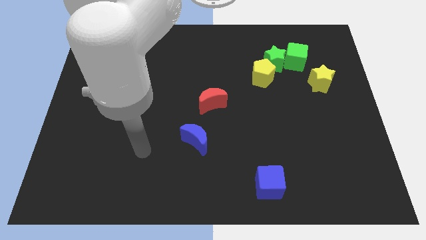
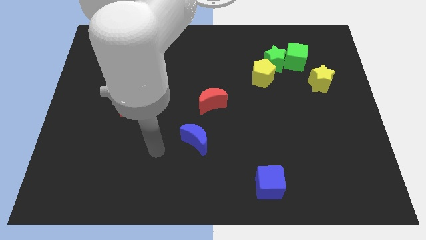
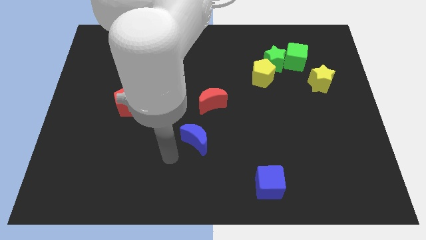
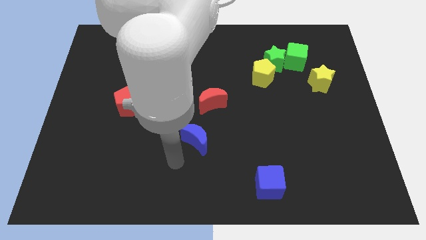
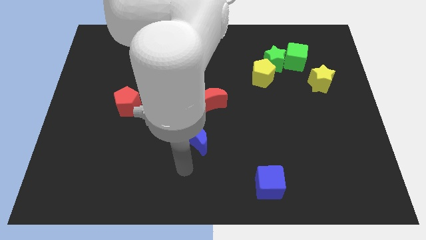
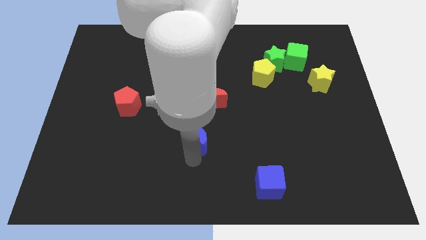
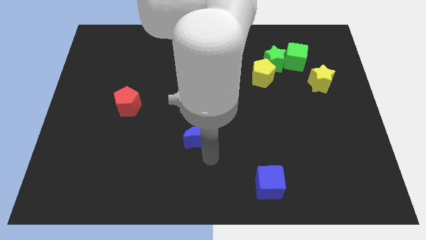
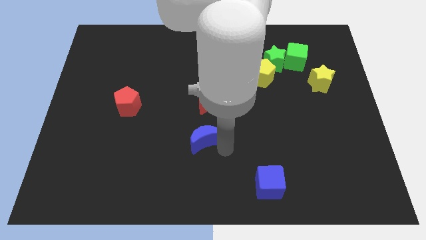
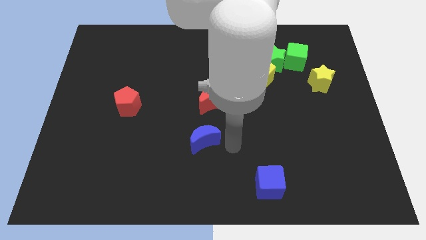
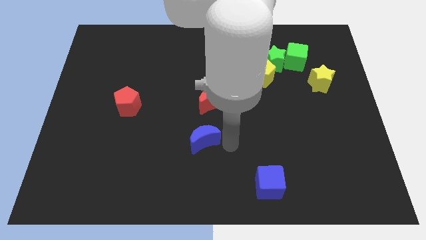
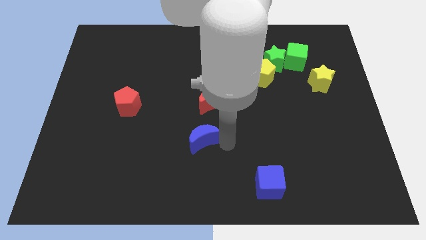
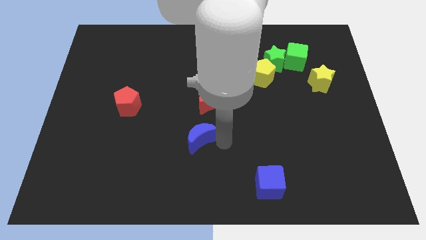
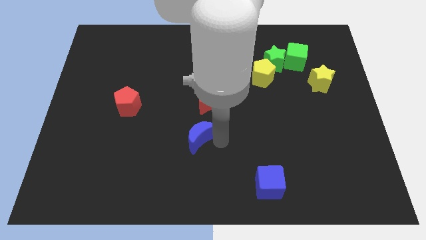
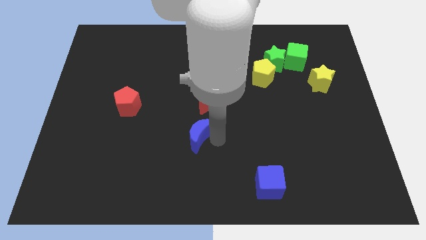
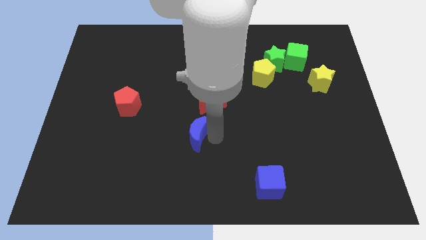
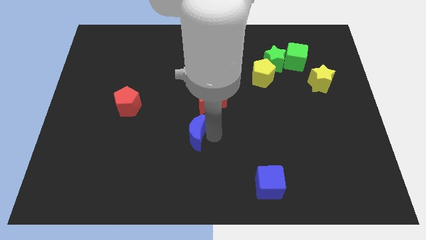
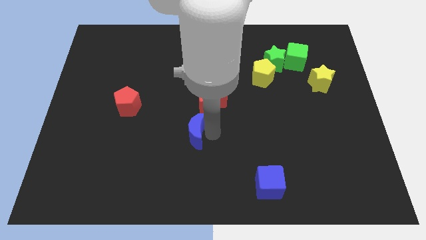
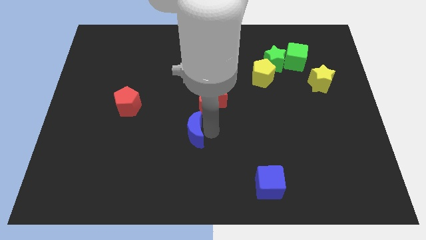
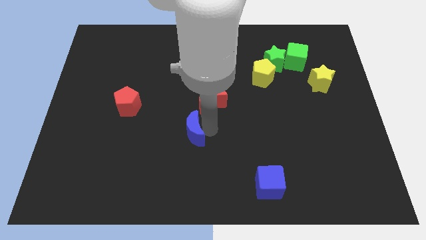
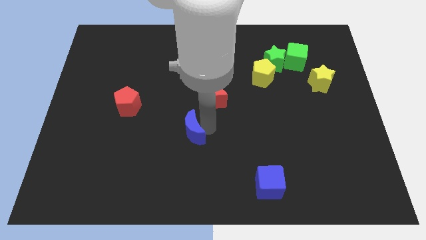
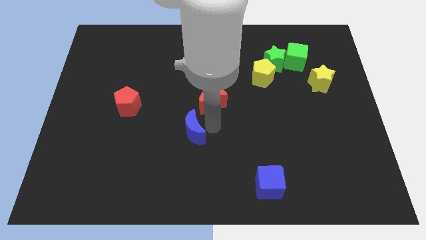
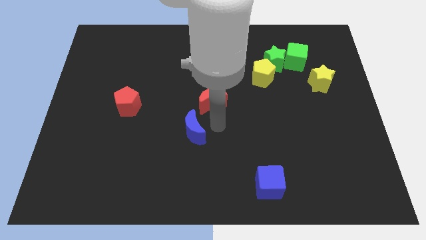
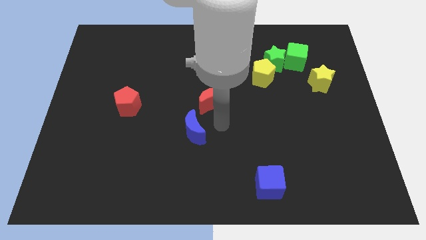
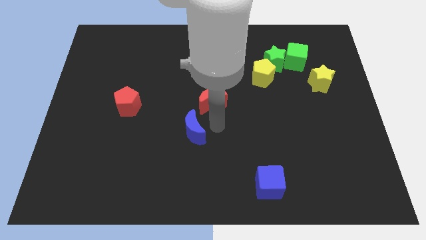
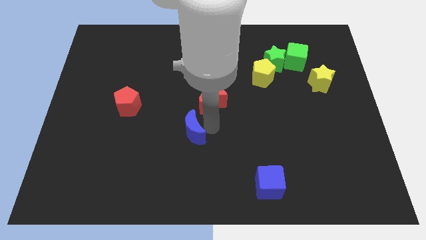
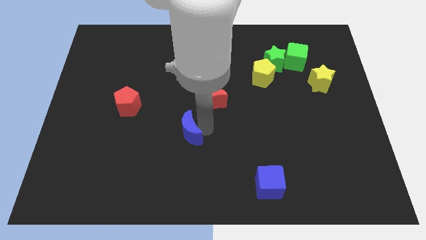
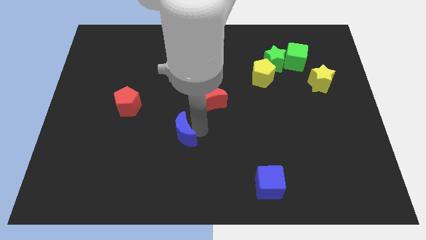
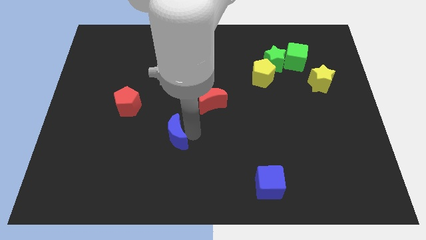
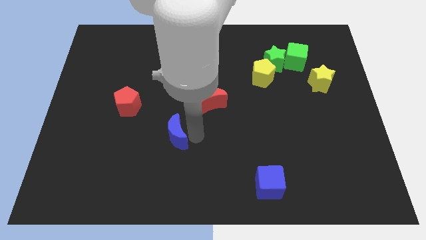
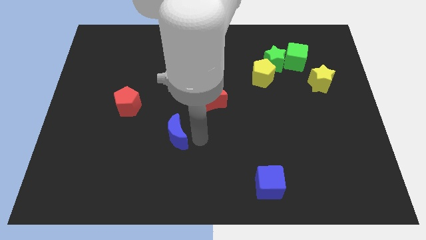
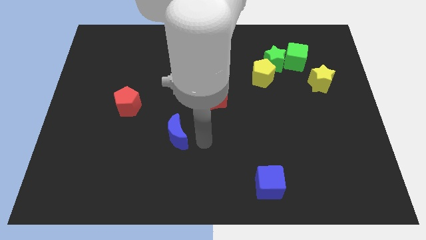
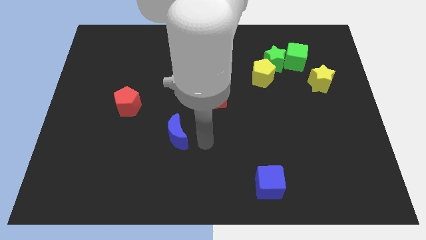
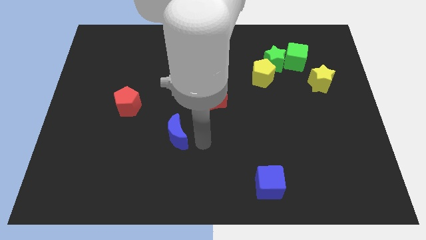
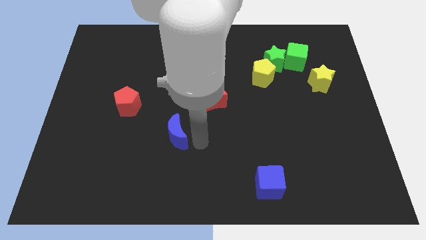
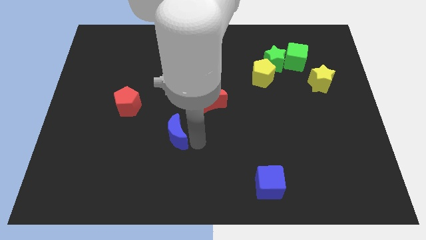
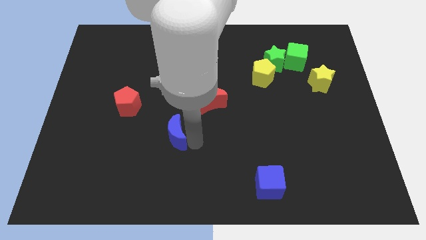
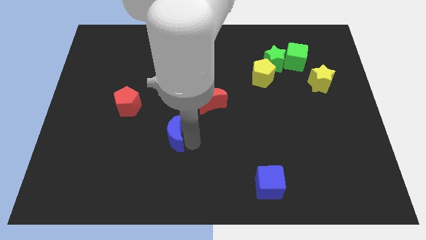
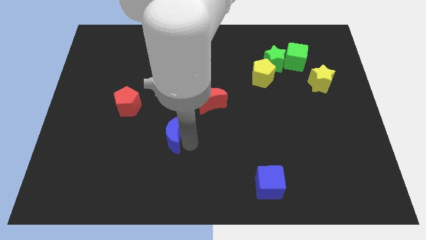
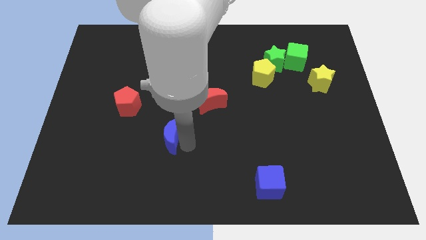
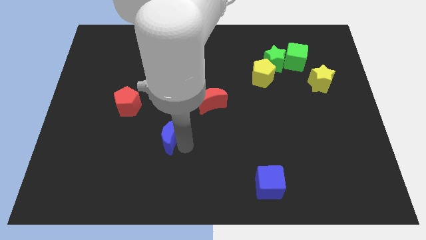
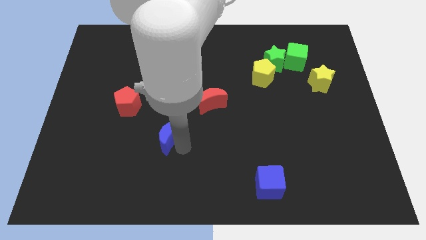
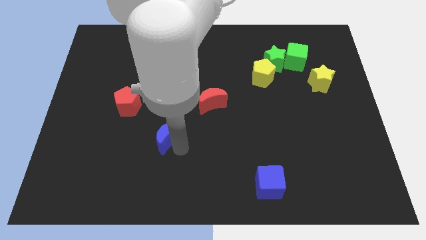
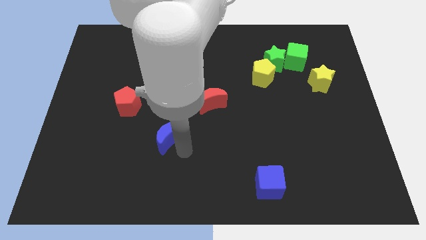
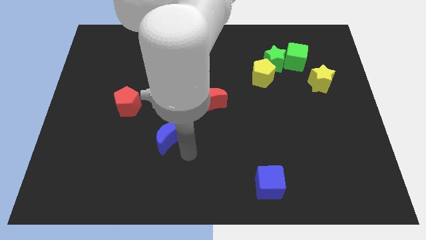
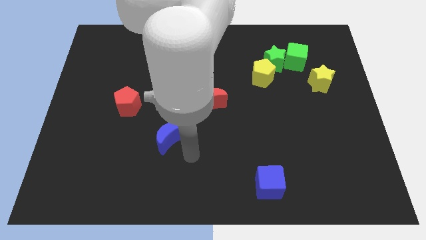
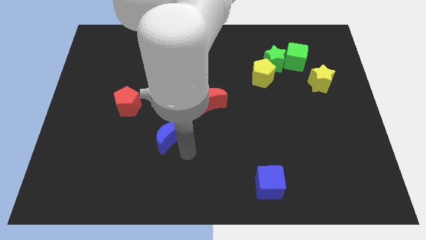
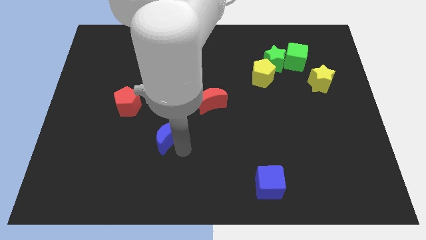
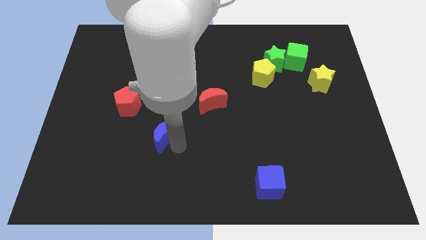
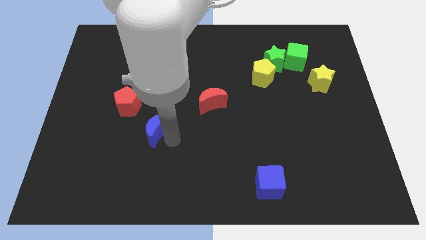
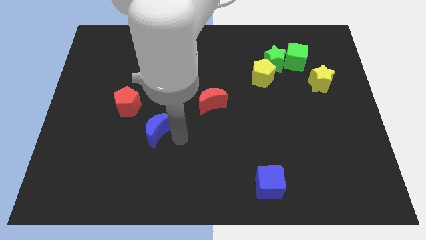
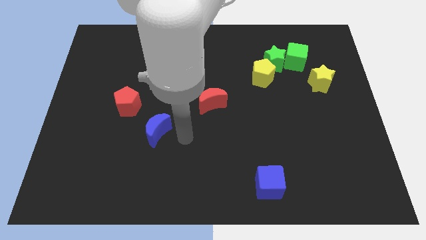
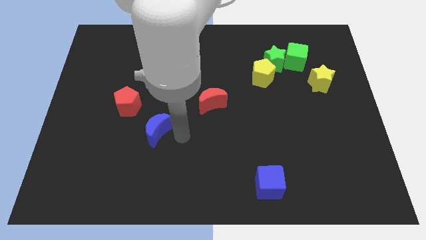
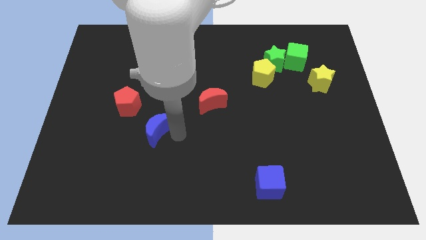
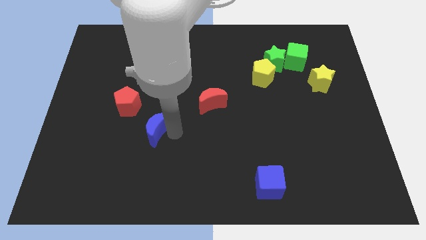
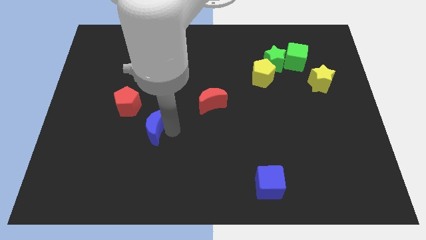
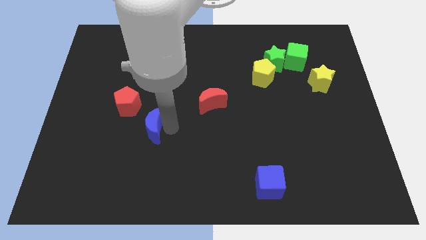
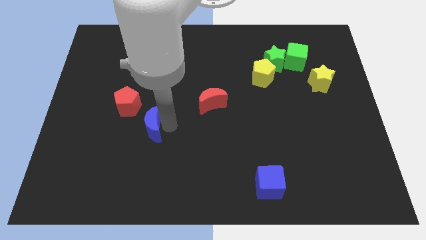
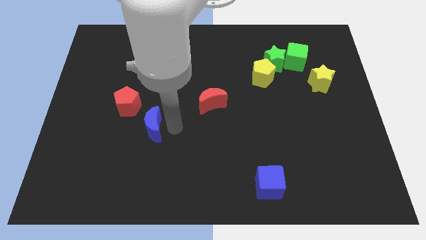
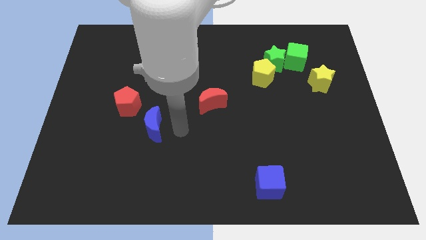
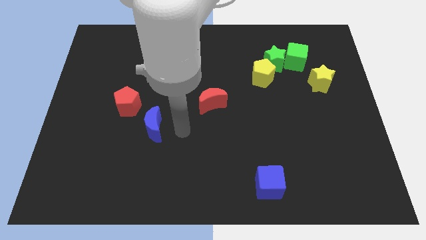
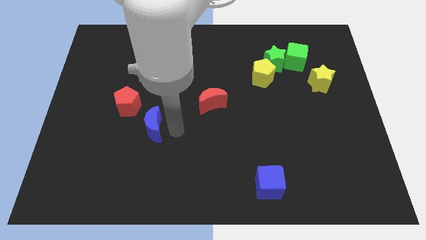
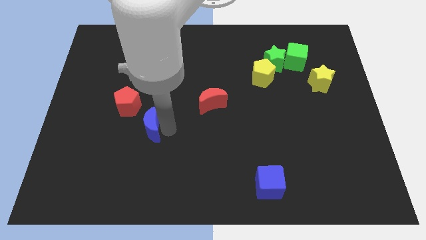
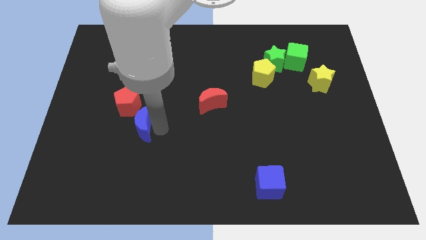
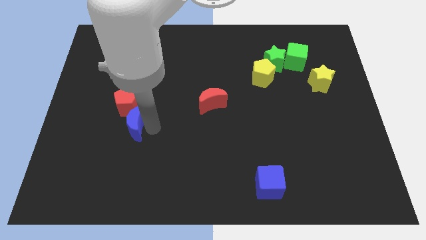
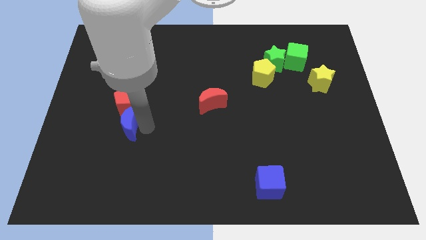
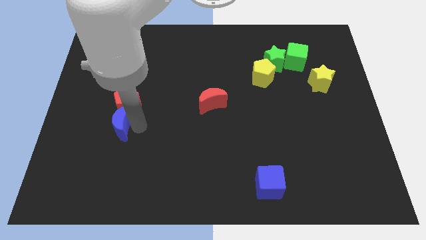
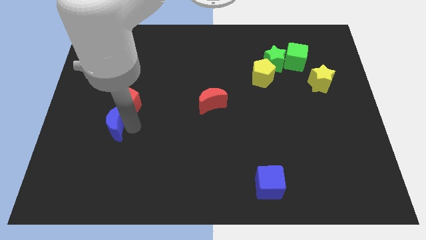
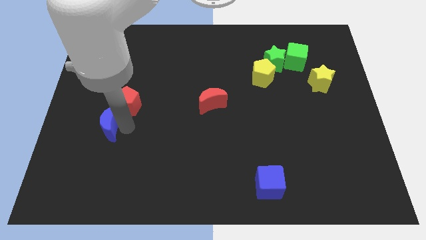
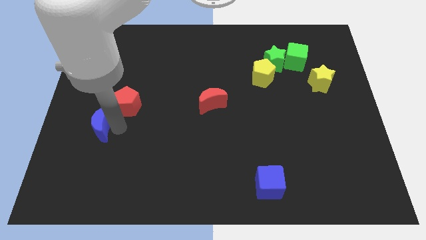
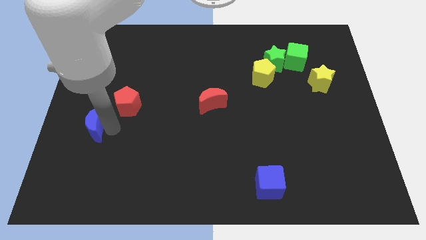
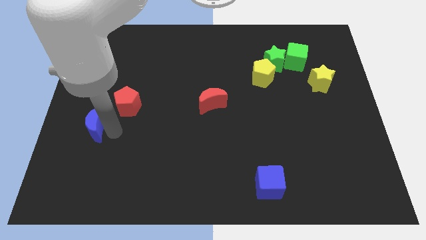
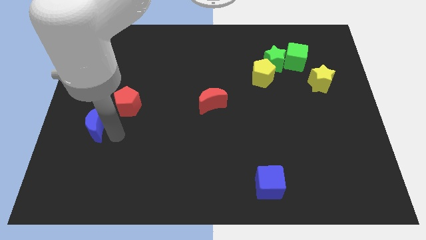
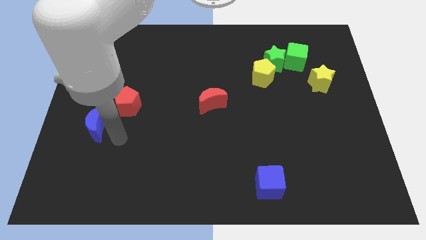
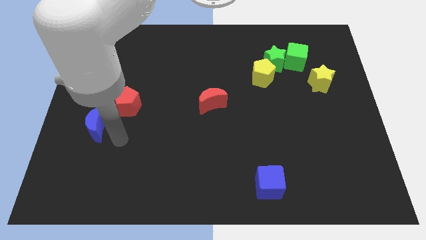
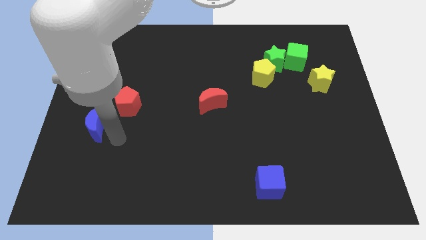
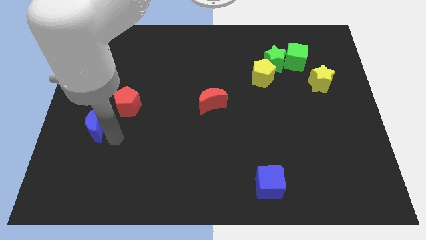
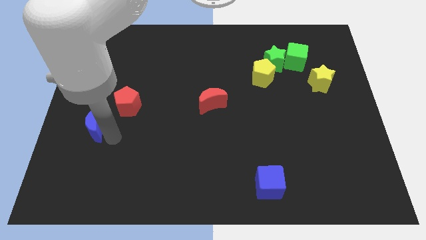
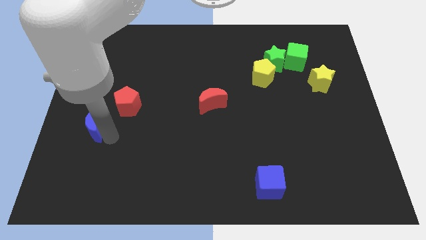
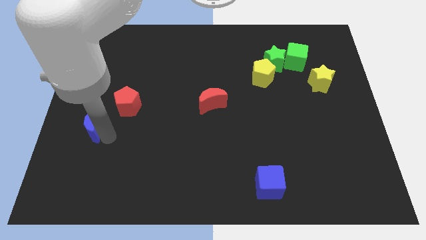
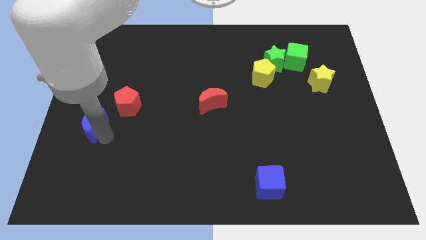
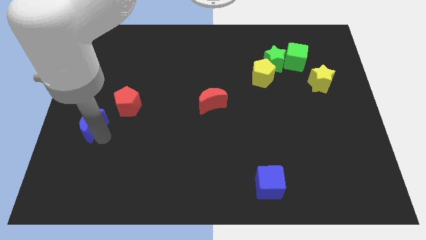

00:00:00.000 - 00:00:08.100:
push the blue moon to the left side
